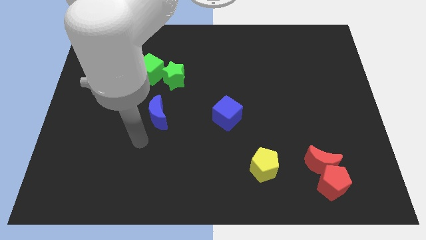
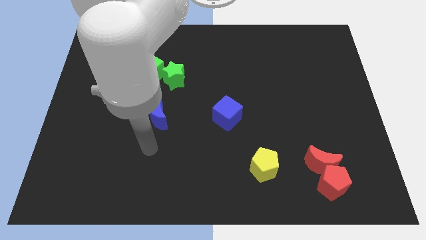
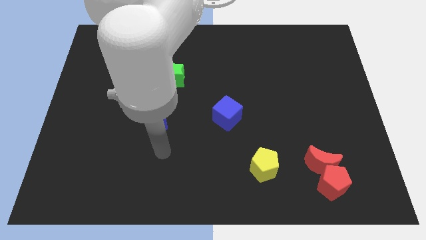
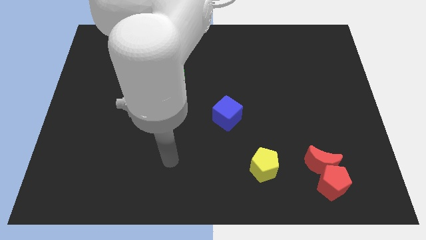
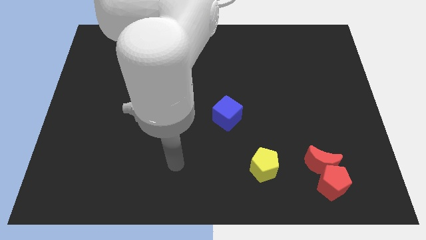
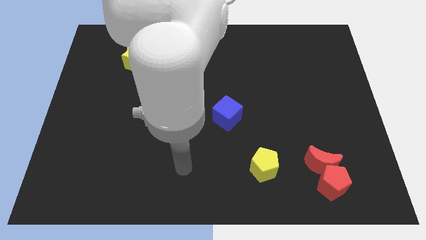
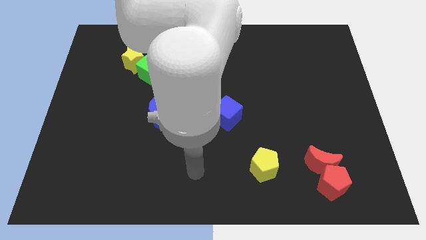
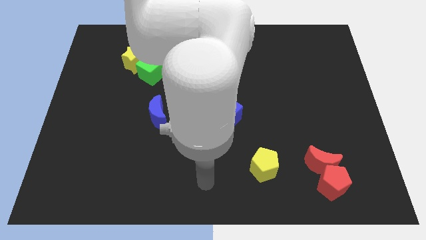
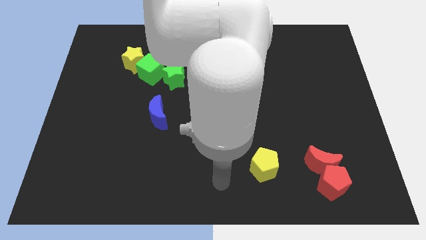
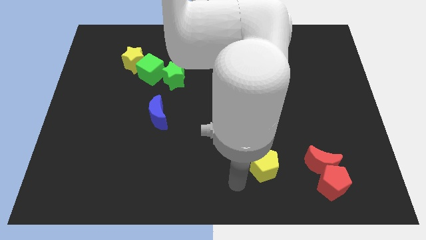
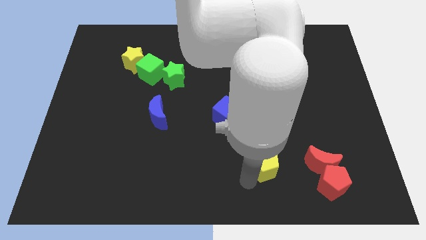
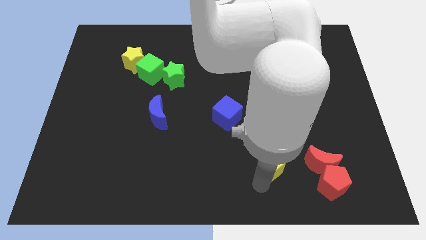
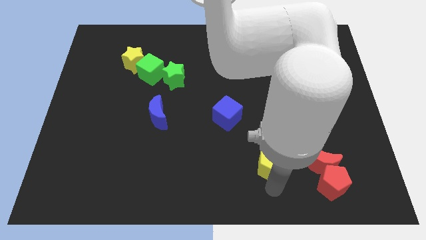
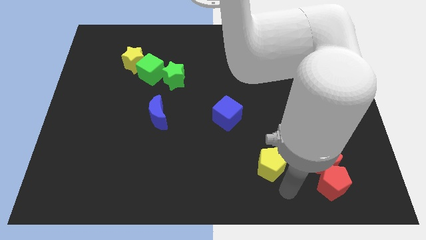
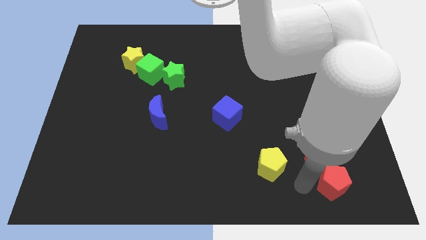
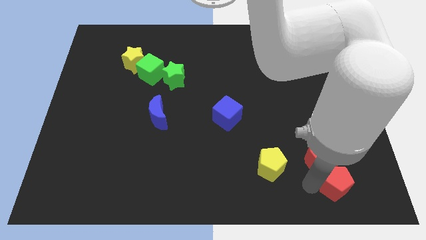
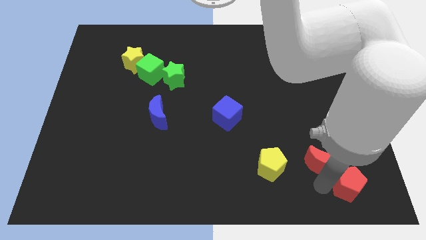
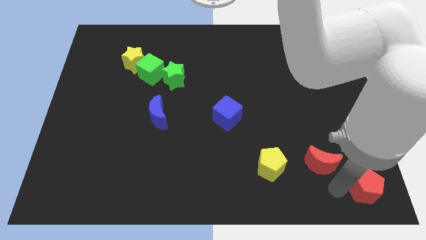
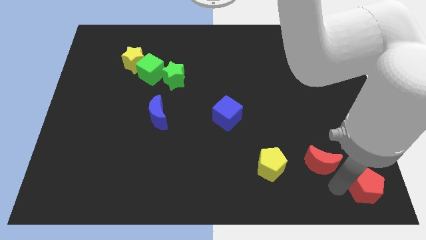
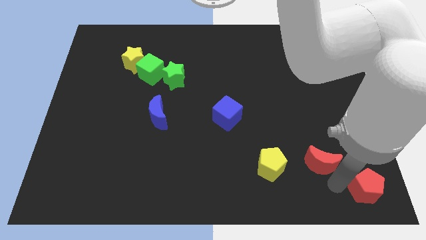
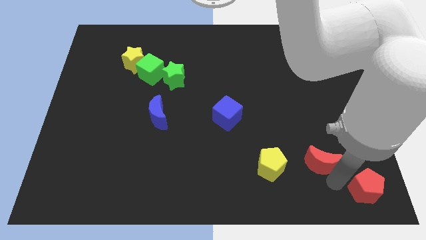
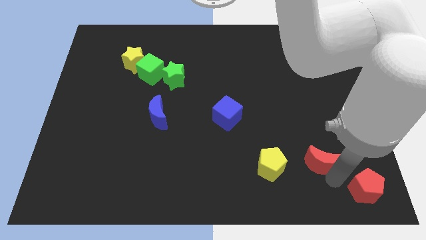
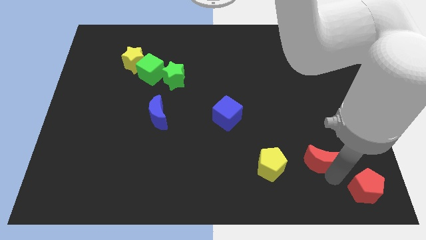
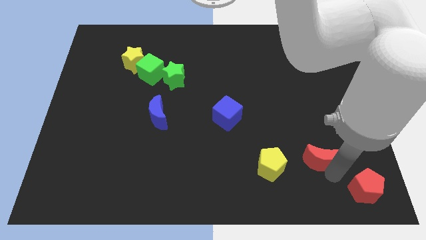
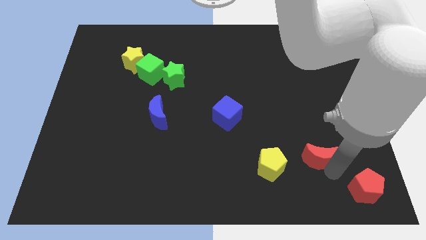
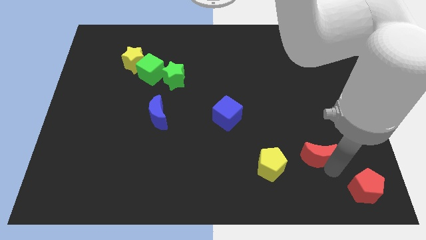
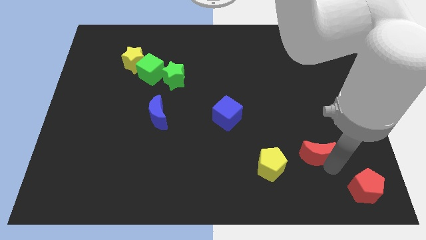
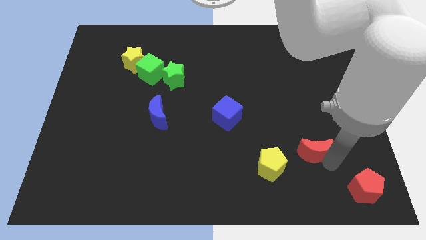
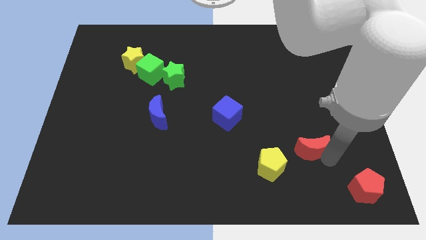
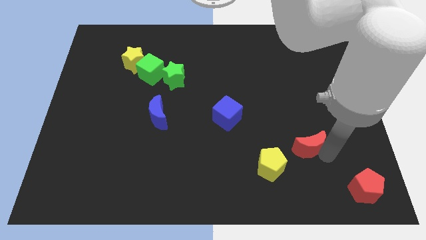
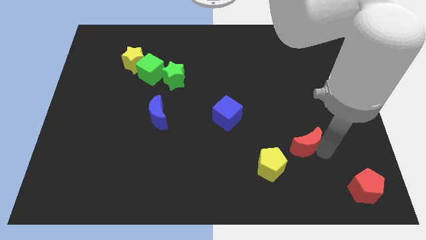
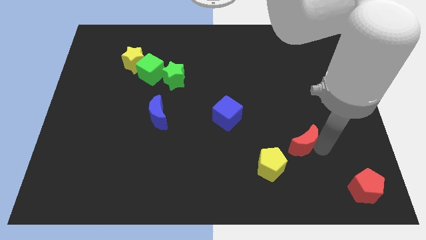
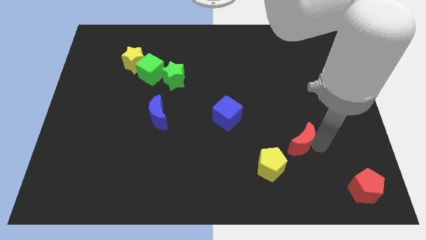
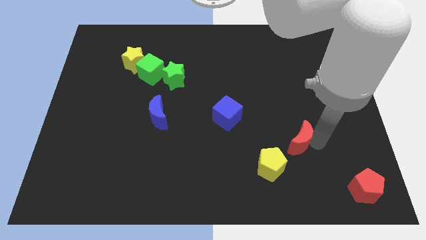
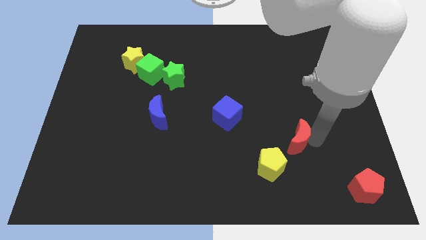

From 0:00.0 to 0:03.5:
move the red moon up and then left somewhat

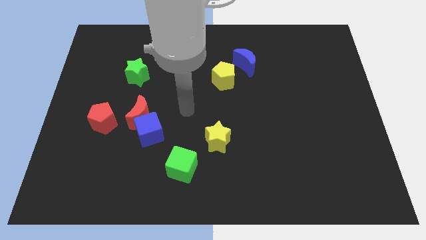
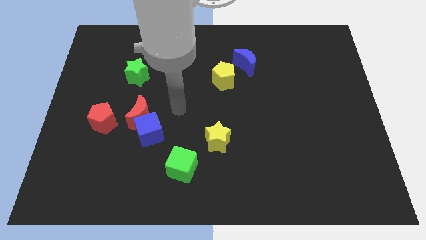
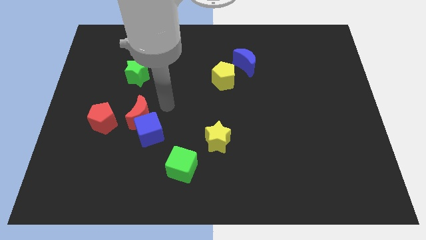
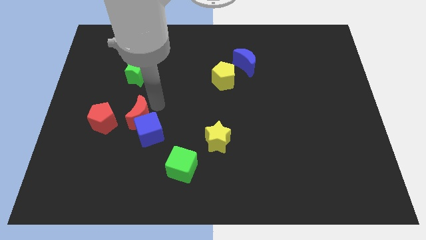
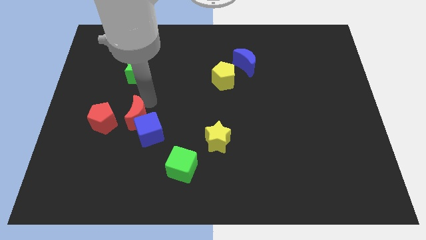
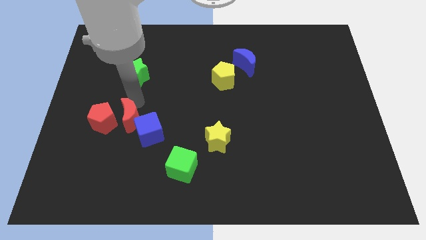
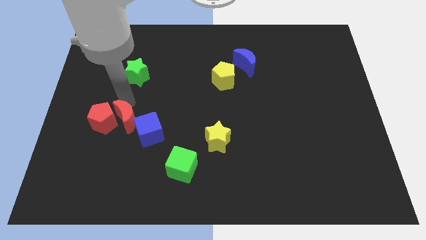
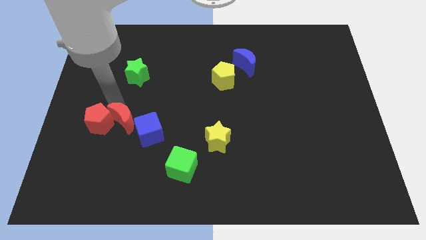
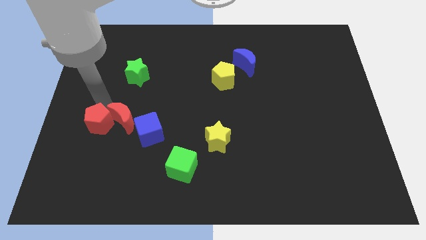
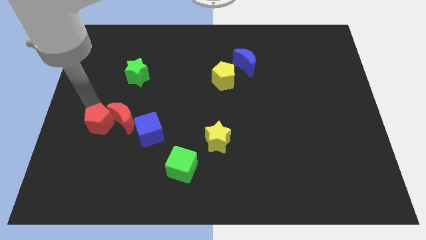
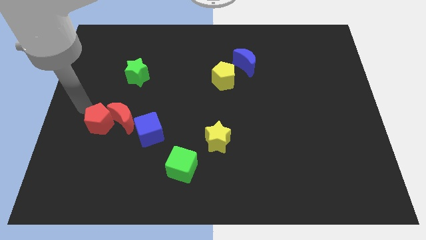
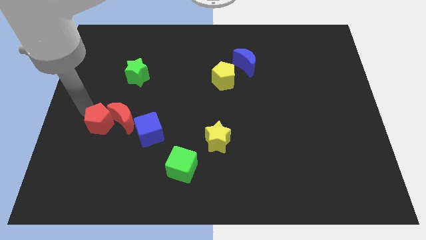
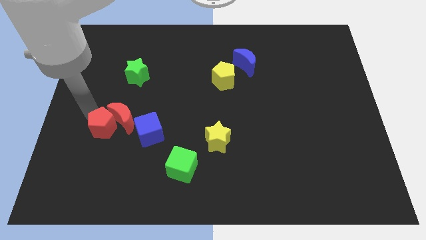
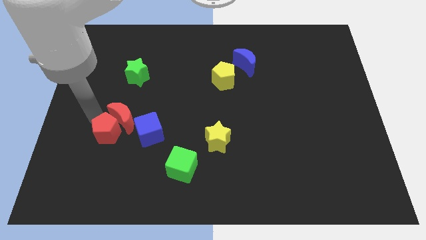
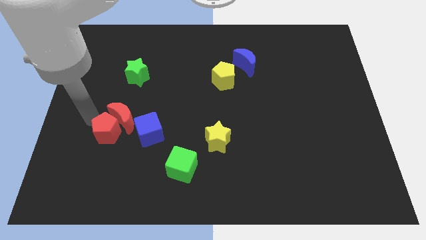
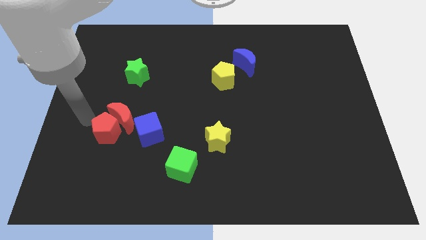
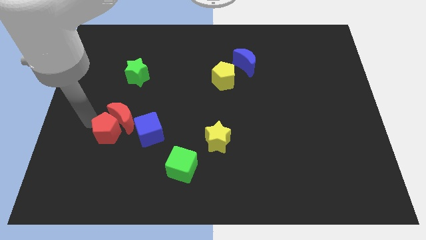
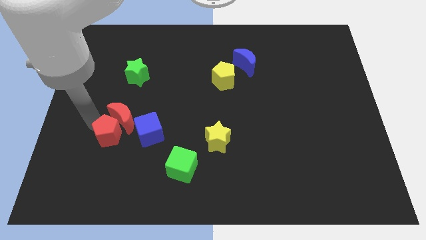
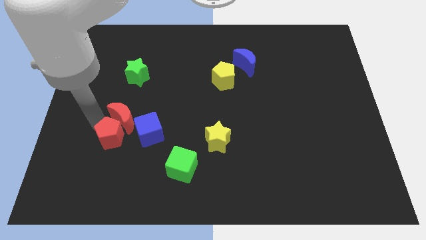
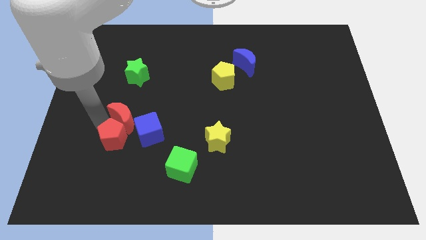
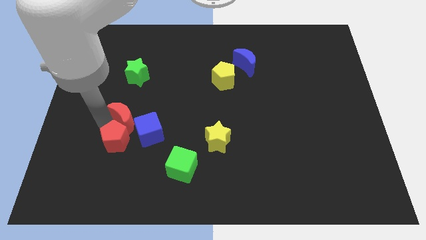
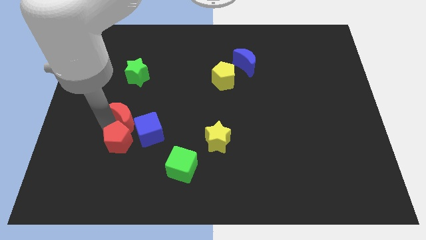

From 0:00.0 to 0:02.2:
push the red pentagon diagonally down and to the right a little

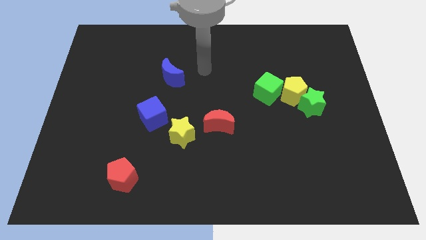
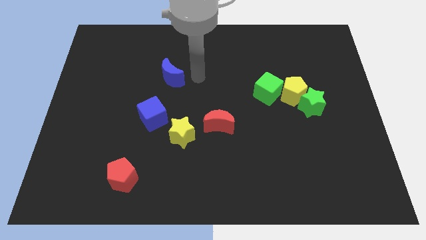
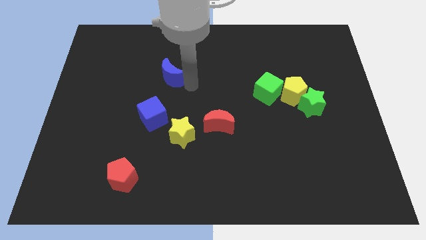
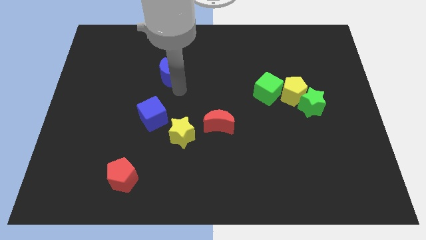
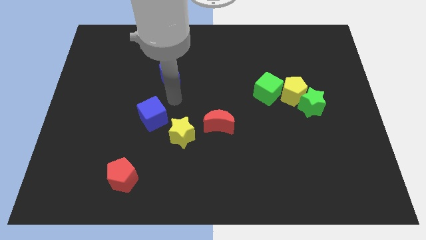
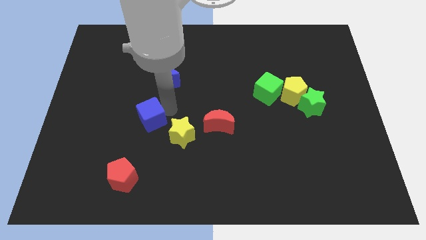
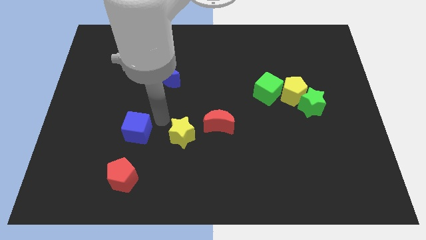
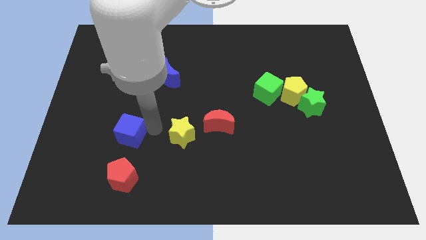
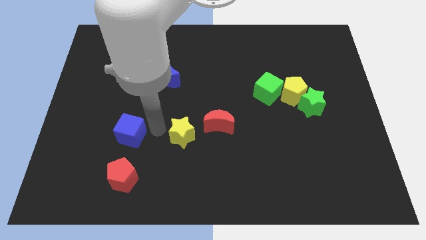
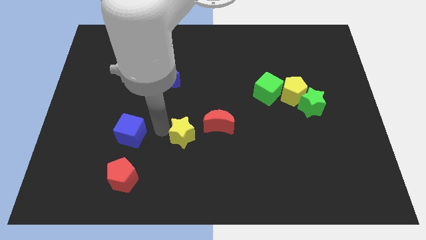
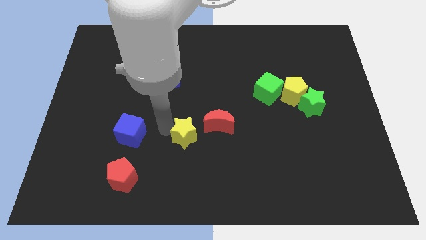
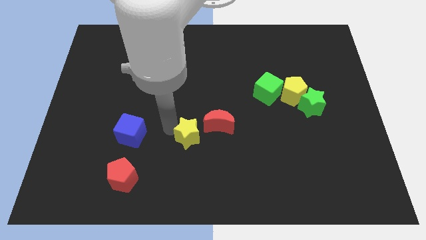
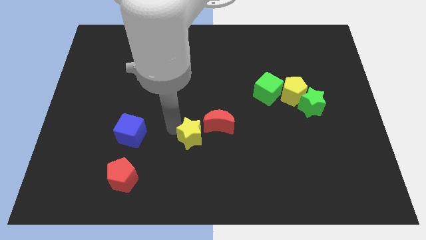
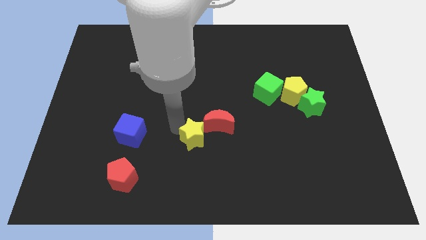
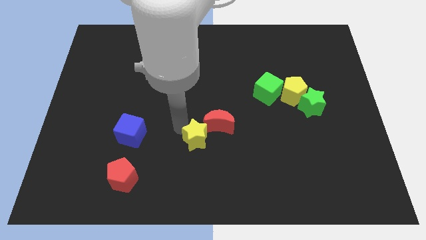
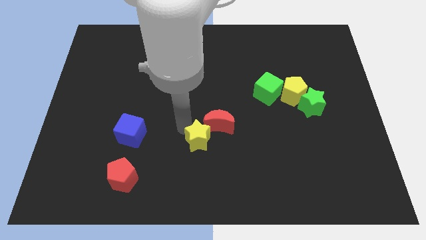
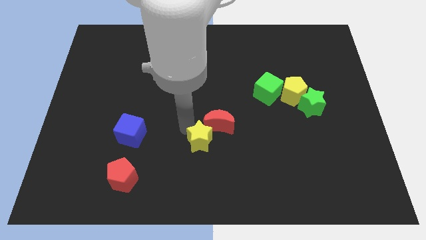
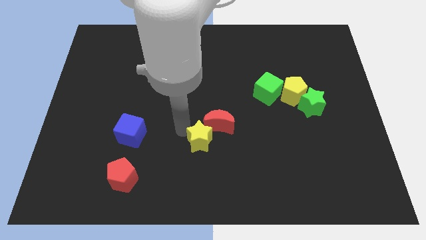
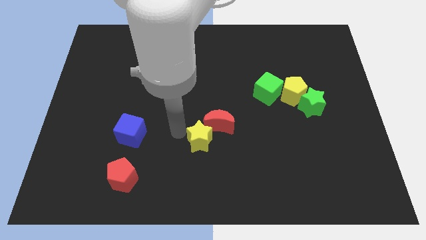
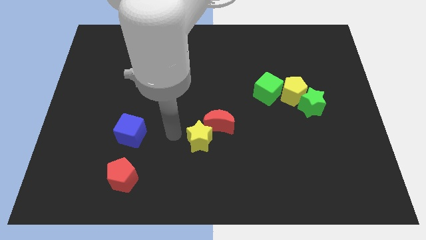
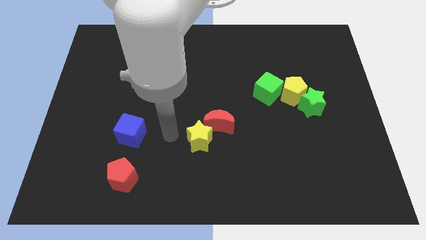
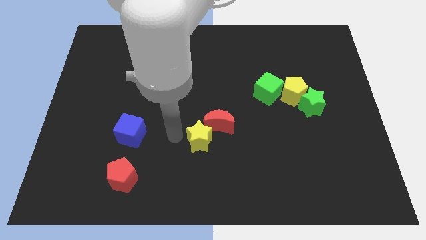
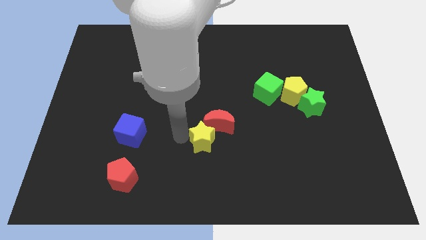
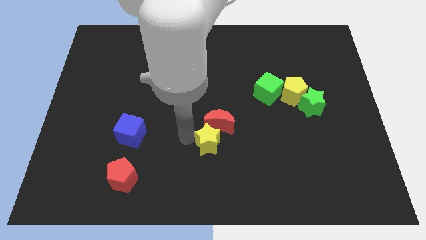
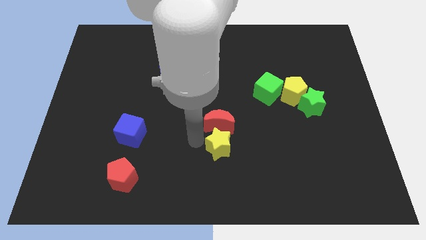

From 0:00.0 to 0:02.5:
push the yellow star a little bit right
